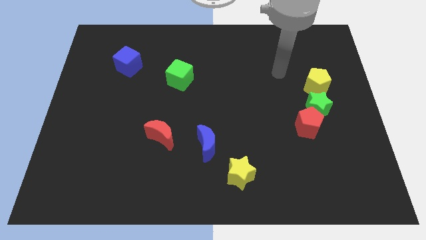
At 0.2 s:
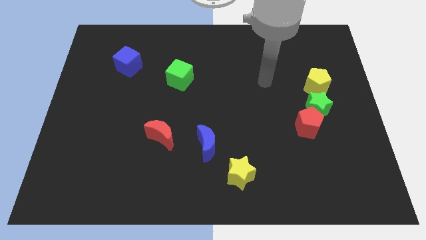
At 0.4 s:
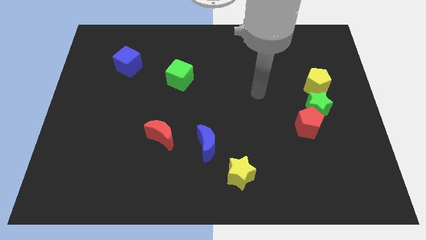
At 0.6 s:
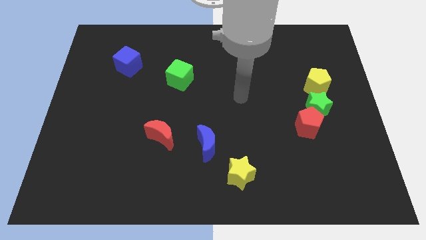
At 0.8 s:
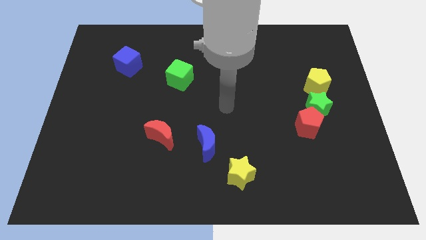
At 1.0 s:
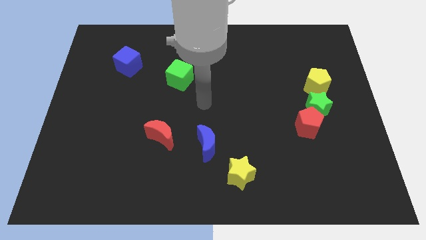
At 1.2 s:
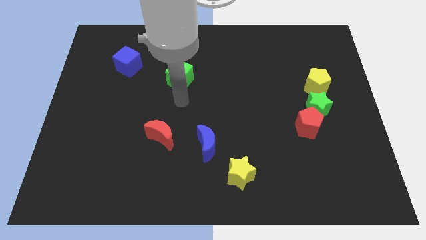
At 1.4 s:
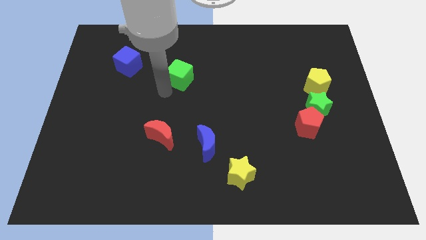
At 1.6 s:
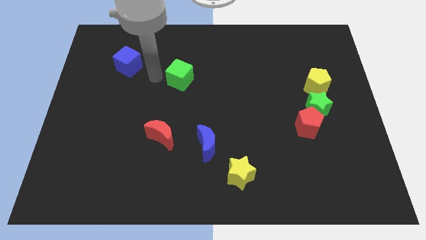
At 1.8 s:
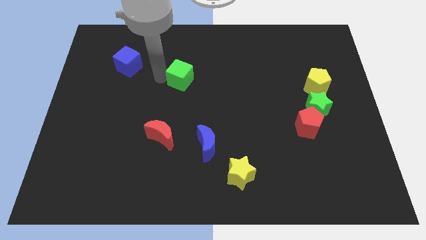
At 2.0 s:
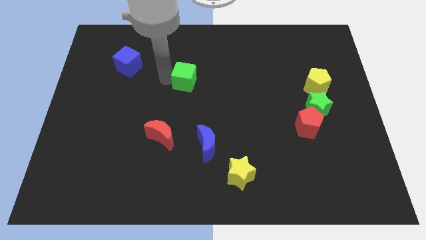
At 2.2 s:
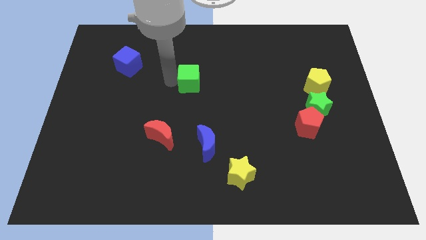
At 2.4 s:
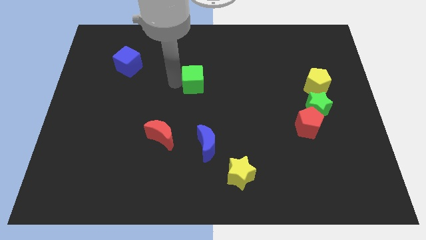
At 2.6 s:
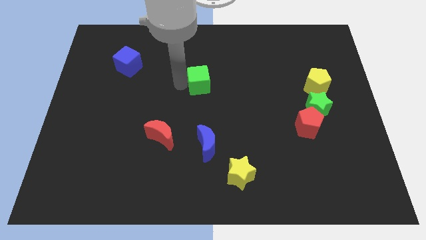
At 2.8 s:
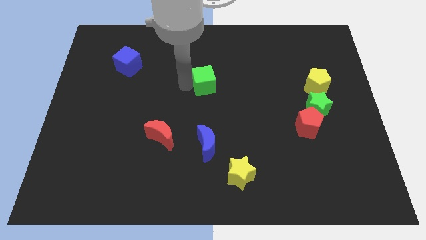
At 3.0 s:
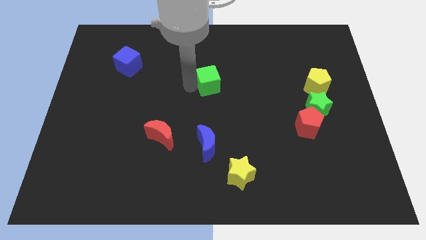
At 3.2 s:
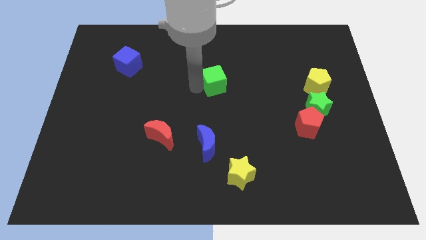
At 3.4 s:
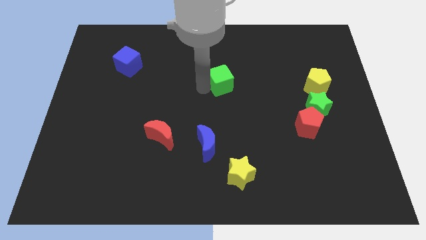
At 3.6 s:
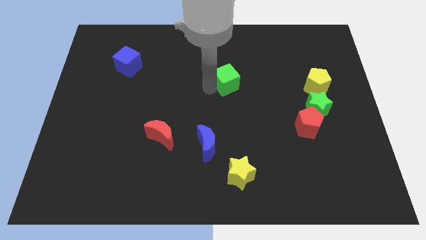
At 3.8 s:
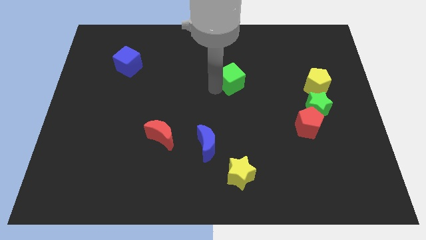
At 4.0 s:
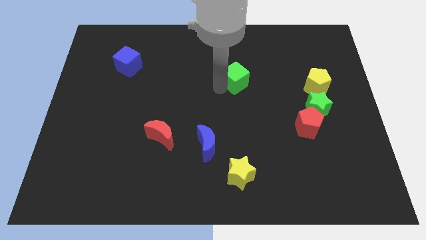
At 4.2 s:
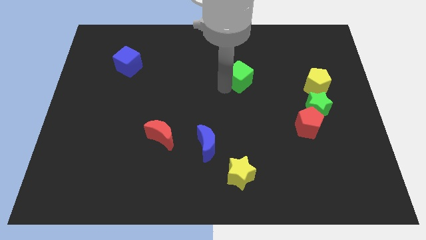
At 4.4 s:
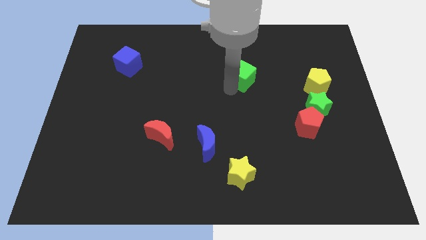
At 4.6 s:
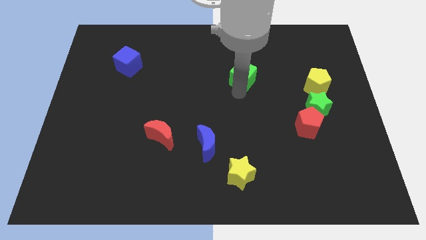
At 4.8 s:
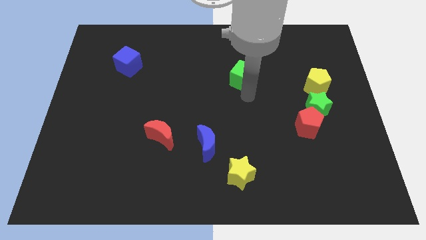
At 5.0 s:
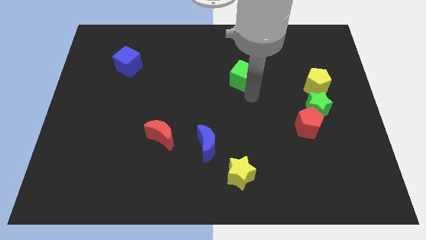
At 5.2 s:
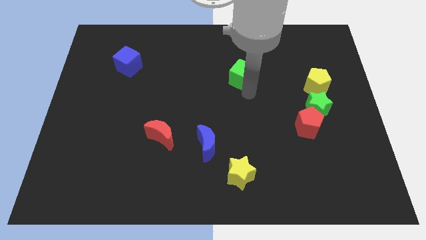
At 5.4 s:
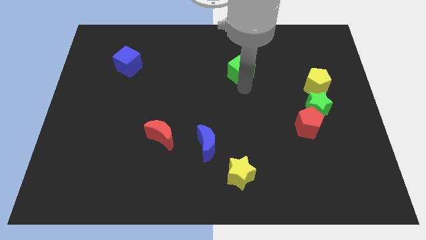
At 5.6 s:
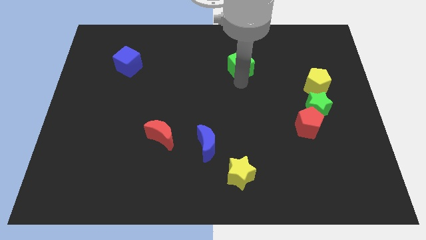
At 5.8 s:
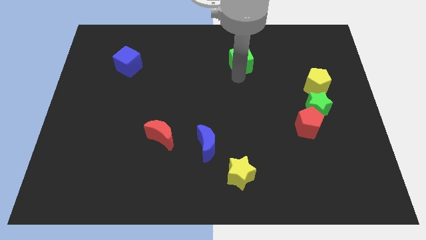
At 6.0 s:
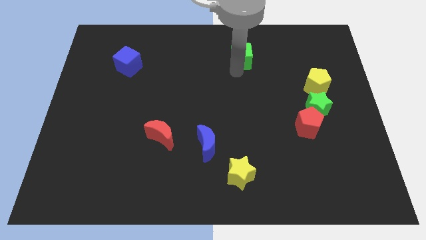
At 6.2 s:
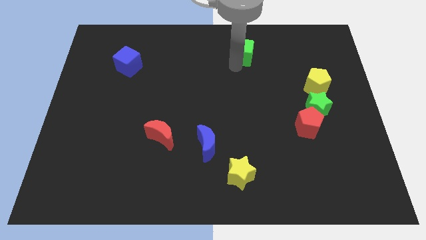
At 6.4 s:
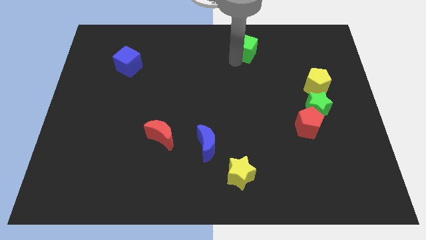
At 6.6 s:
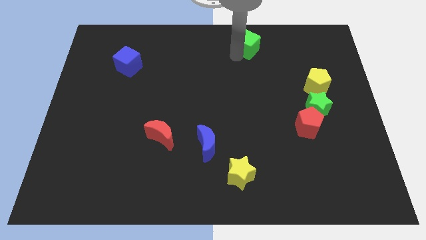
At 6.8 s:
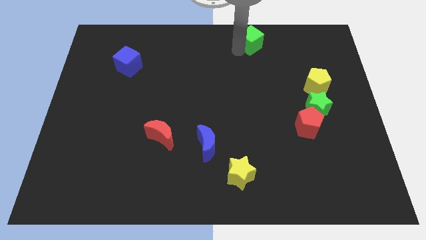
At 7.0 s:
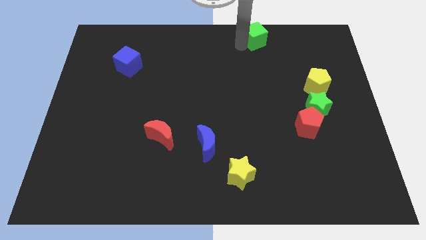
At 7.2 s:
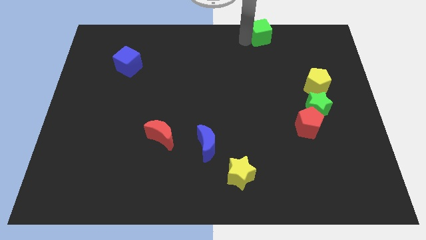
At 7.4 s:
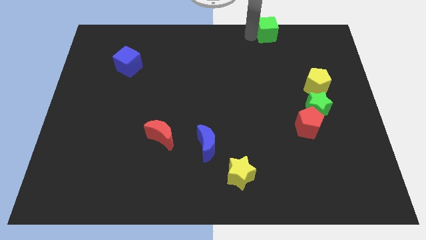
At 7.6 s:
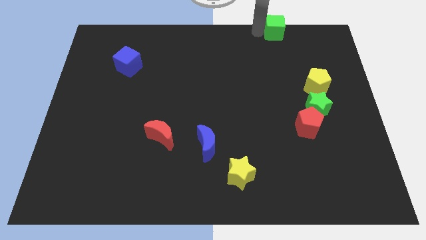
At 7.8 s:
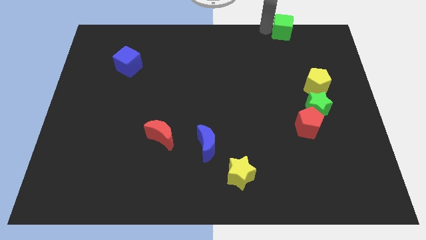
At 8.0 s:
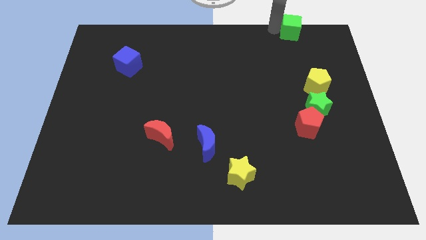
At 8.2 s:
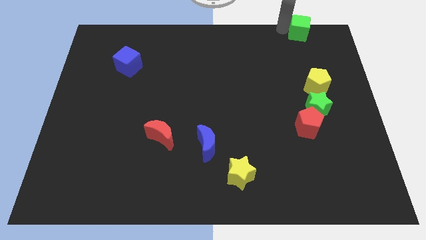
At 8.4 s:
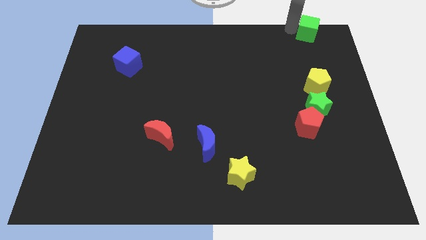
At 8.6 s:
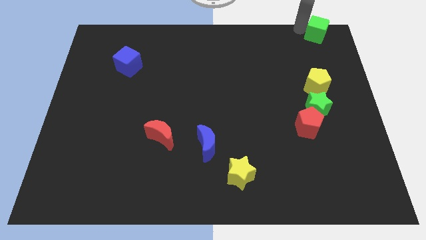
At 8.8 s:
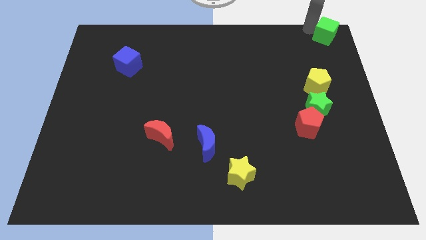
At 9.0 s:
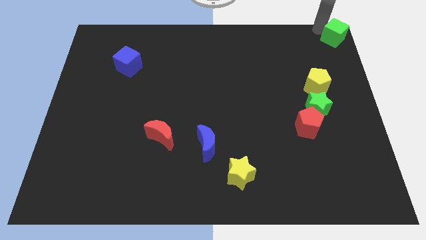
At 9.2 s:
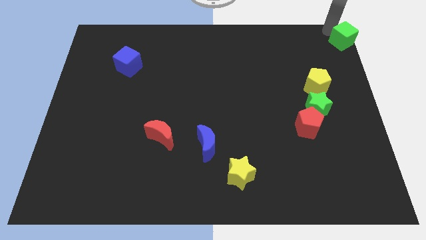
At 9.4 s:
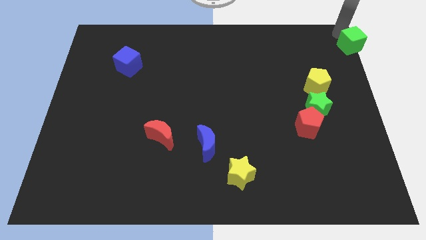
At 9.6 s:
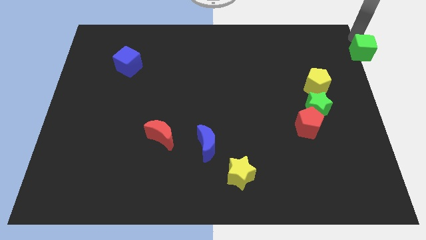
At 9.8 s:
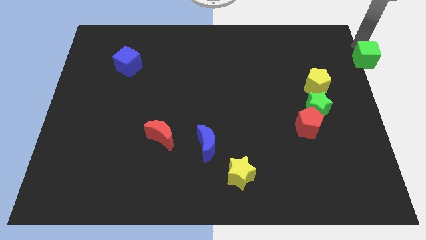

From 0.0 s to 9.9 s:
move the green cube to the center right

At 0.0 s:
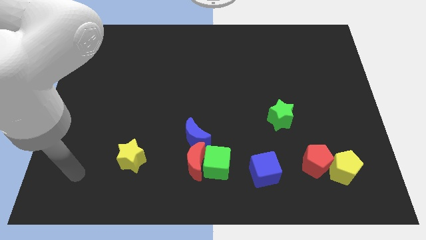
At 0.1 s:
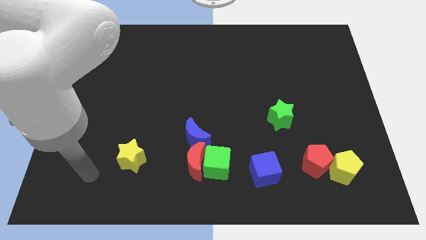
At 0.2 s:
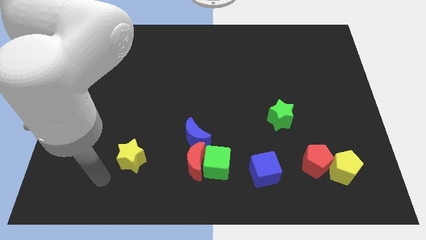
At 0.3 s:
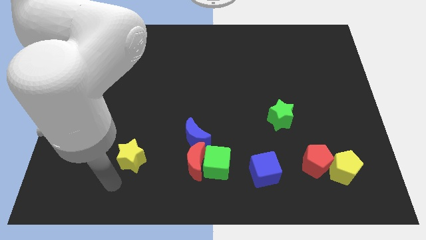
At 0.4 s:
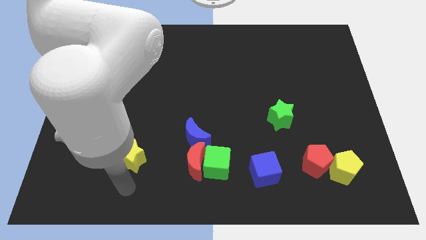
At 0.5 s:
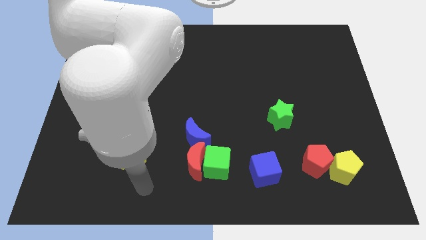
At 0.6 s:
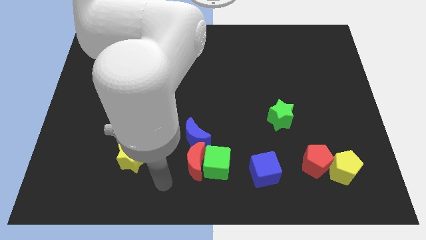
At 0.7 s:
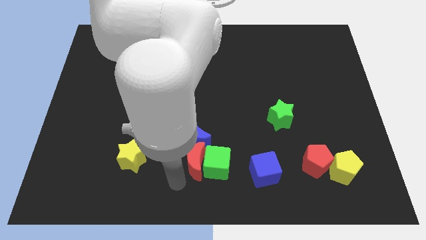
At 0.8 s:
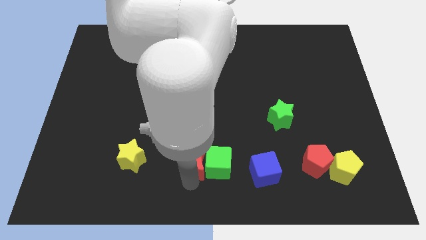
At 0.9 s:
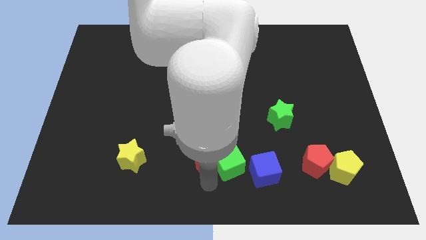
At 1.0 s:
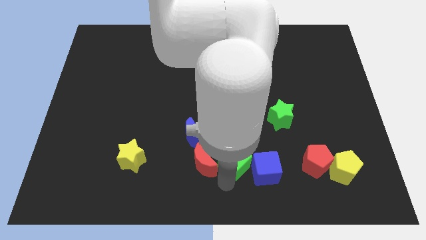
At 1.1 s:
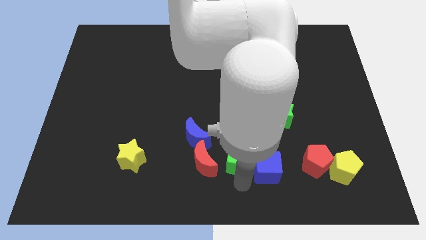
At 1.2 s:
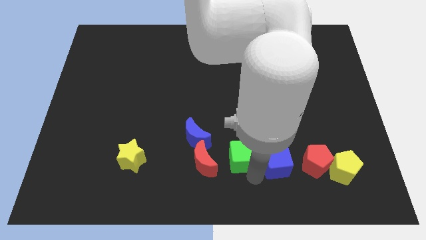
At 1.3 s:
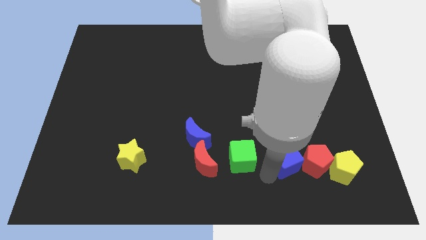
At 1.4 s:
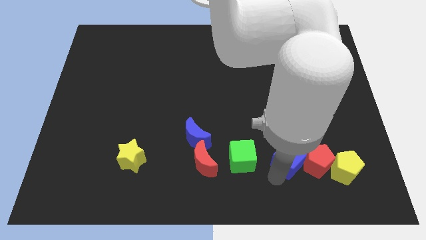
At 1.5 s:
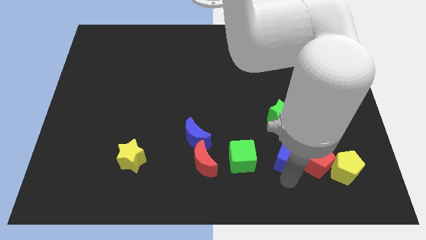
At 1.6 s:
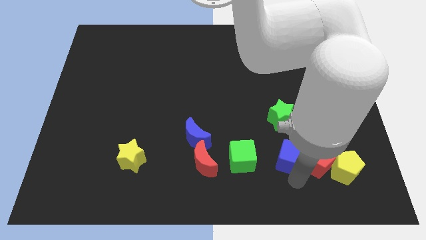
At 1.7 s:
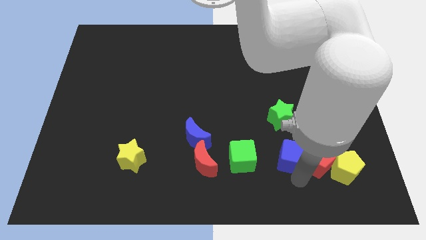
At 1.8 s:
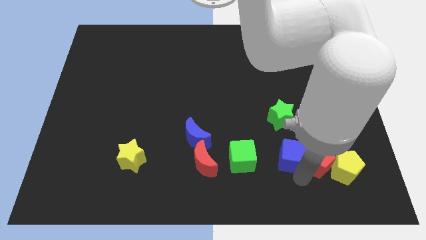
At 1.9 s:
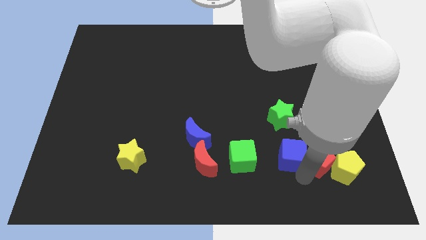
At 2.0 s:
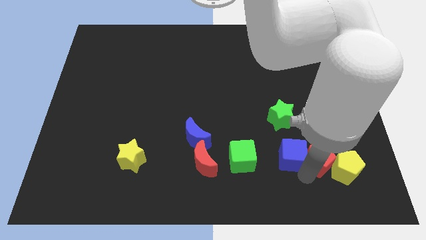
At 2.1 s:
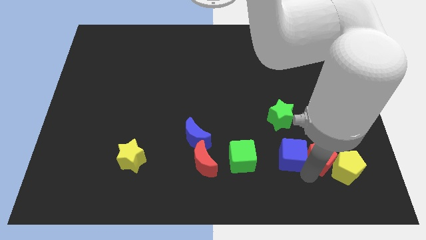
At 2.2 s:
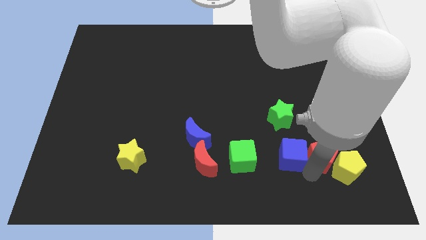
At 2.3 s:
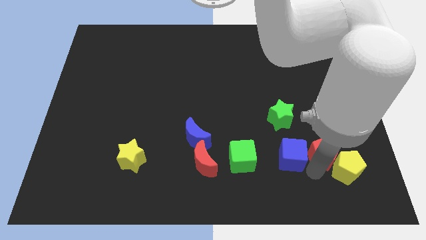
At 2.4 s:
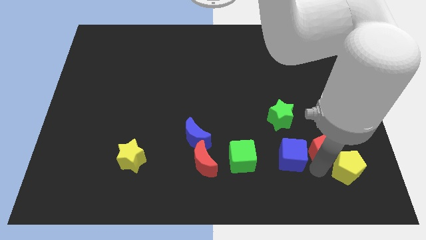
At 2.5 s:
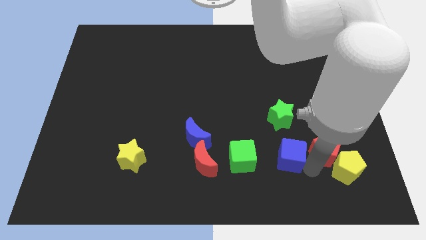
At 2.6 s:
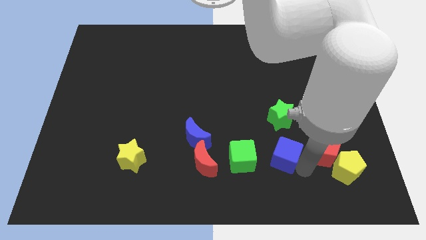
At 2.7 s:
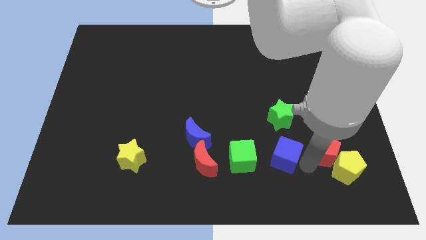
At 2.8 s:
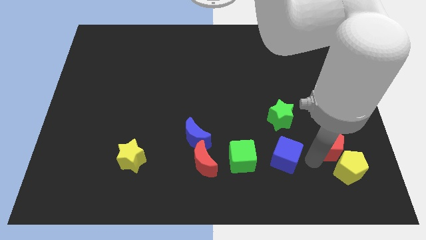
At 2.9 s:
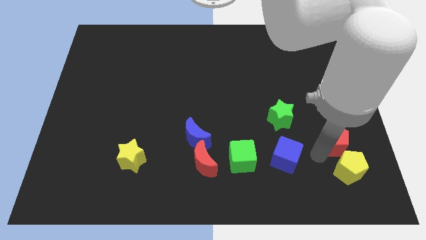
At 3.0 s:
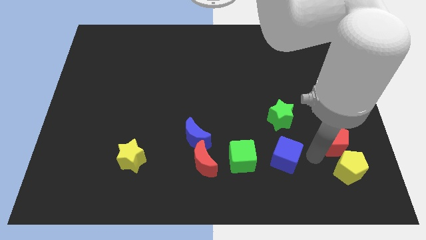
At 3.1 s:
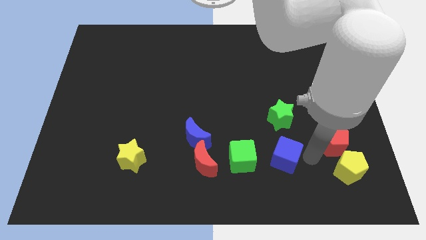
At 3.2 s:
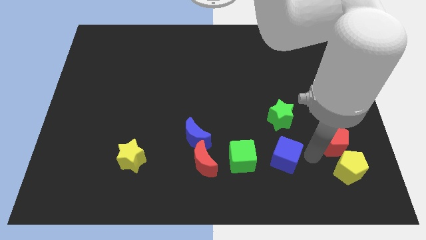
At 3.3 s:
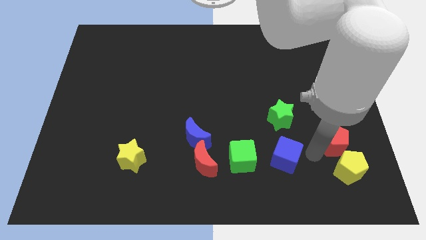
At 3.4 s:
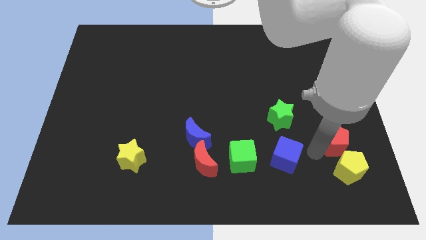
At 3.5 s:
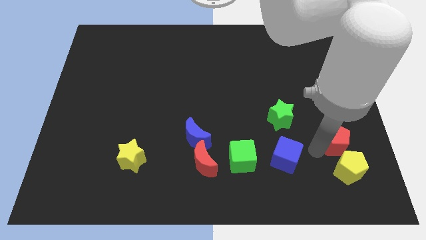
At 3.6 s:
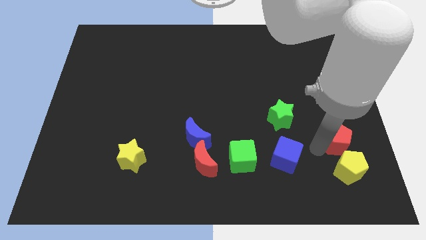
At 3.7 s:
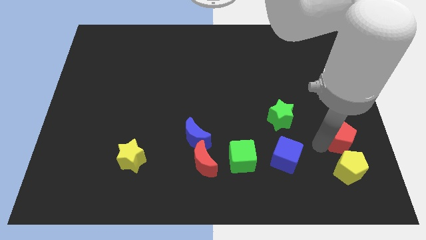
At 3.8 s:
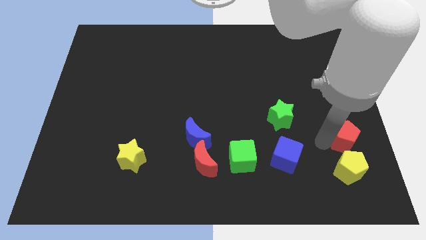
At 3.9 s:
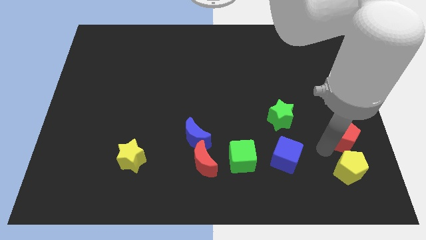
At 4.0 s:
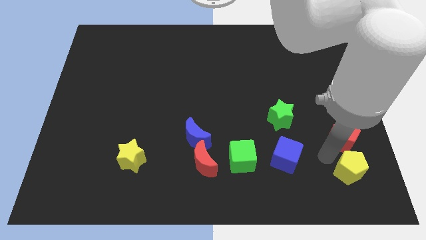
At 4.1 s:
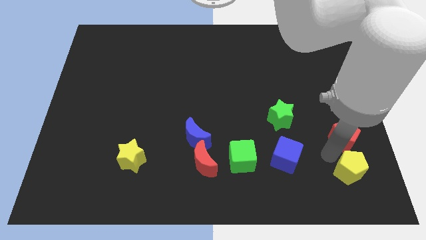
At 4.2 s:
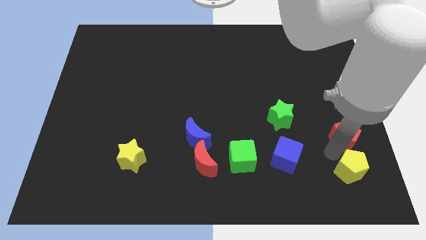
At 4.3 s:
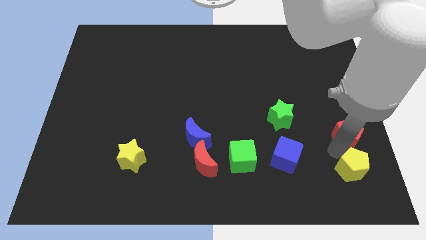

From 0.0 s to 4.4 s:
put the red pentagon to the center right
